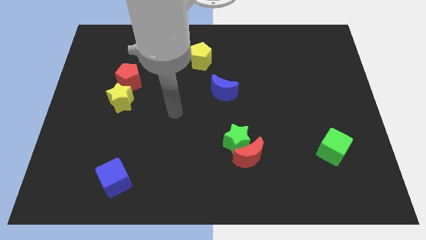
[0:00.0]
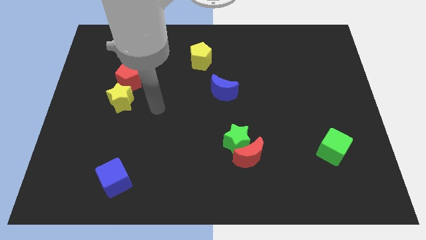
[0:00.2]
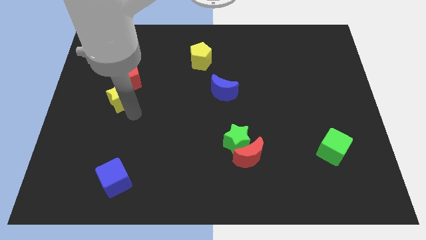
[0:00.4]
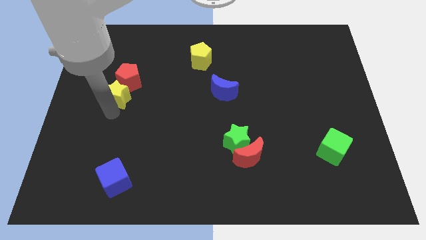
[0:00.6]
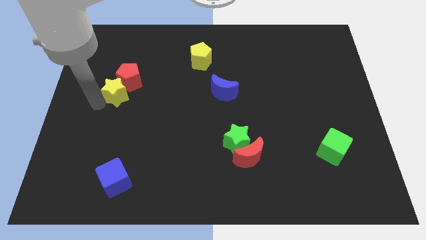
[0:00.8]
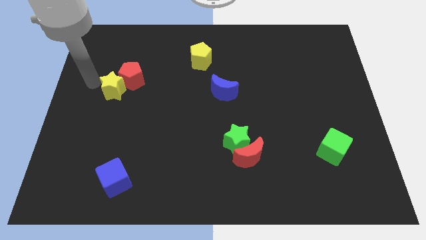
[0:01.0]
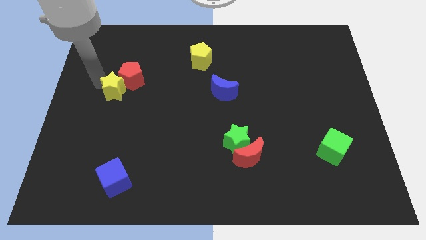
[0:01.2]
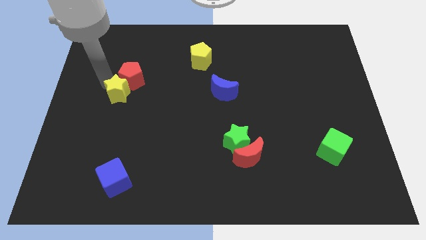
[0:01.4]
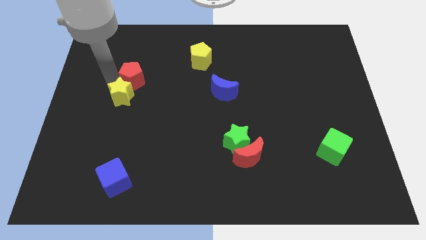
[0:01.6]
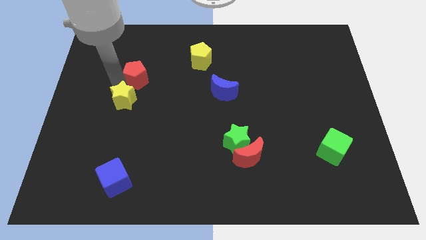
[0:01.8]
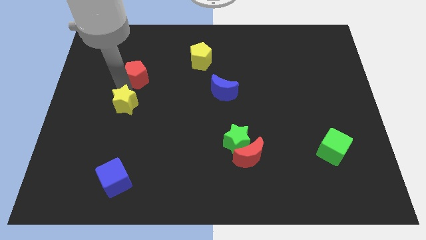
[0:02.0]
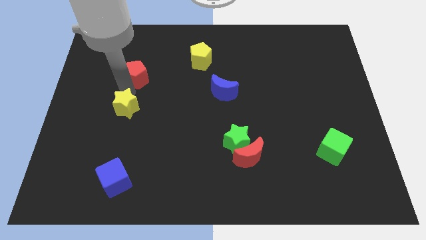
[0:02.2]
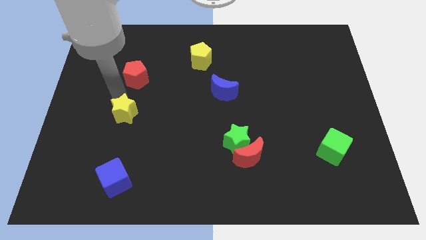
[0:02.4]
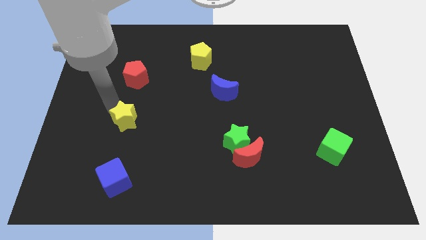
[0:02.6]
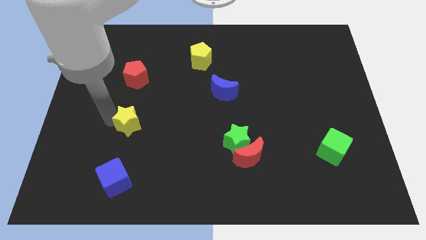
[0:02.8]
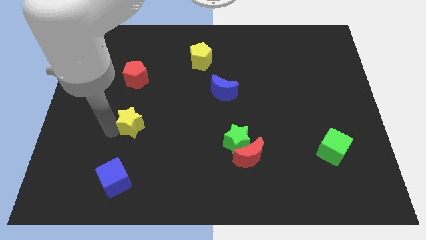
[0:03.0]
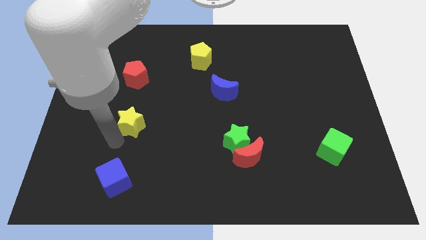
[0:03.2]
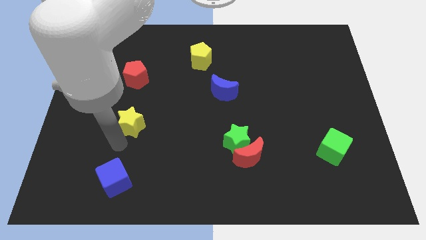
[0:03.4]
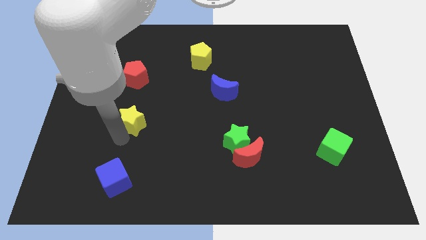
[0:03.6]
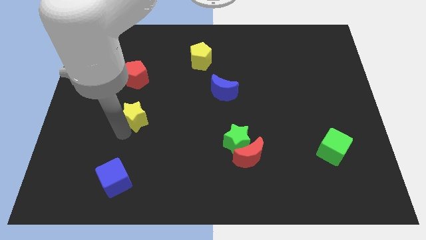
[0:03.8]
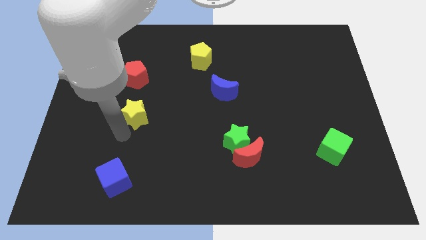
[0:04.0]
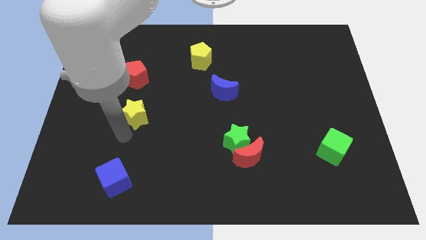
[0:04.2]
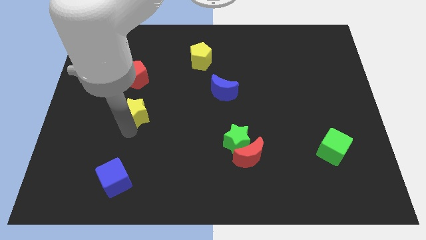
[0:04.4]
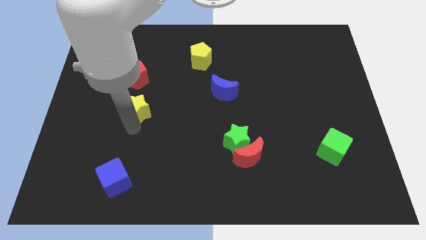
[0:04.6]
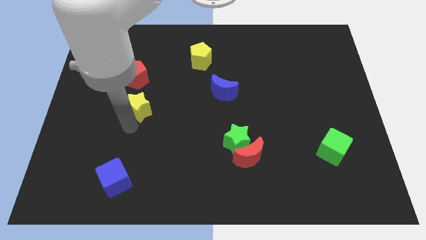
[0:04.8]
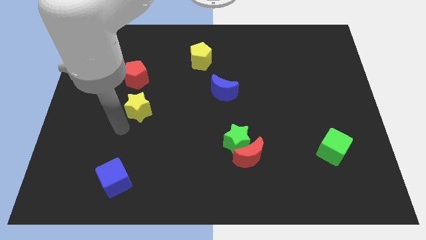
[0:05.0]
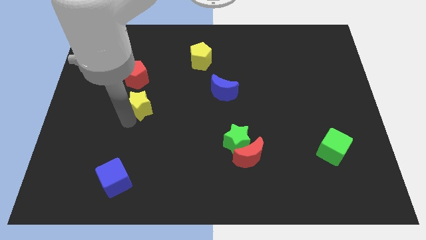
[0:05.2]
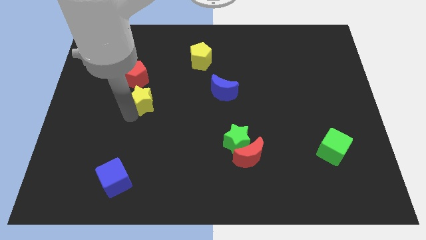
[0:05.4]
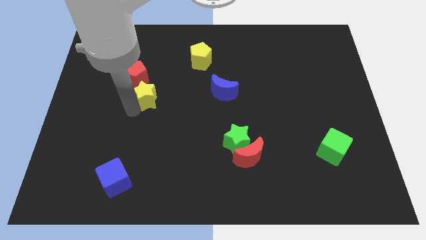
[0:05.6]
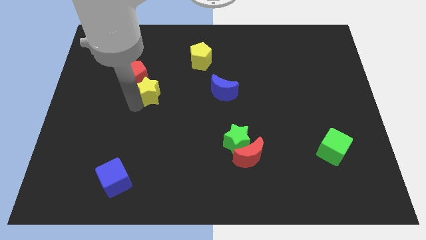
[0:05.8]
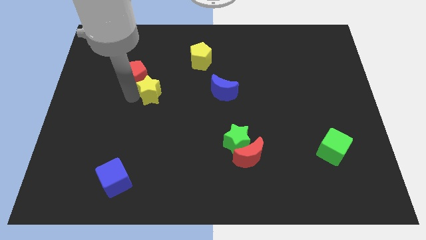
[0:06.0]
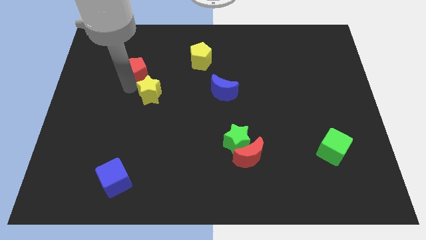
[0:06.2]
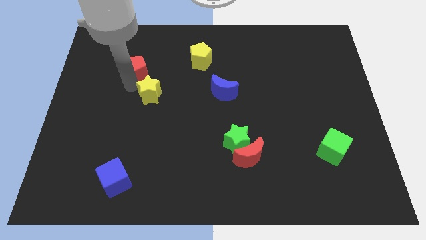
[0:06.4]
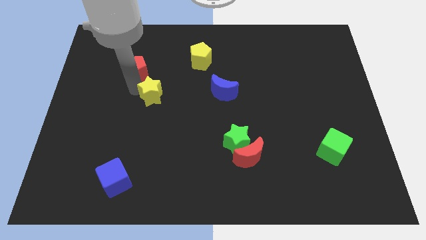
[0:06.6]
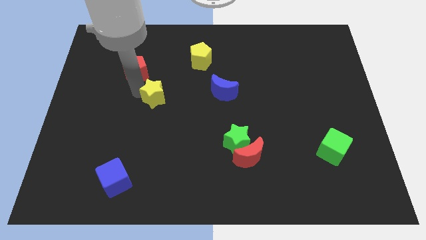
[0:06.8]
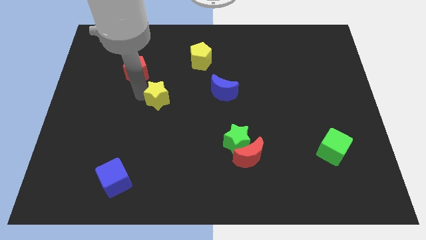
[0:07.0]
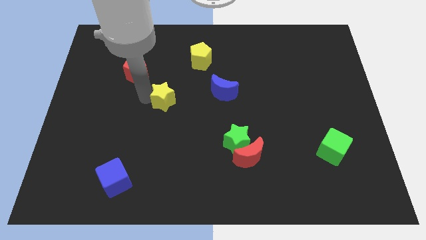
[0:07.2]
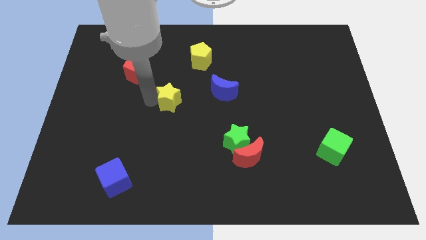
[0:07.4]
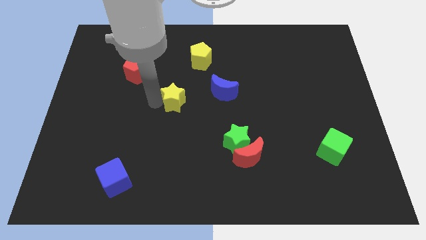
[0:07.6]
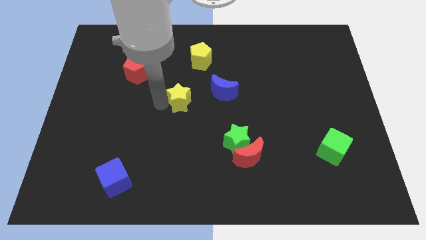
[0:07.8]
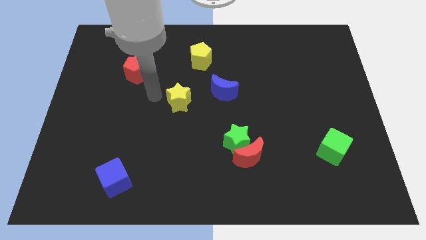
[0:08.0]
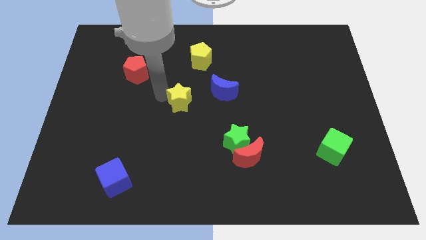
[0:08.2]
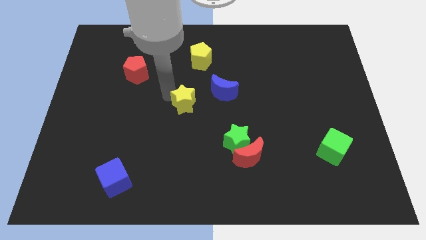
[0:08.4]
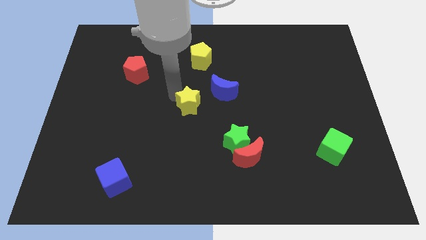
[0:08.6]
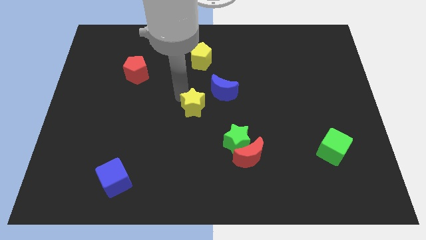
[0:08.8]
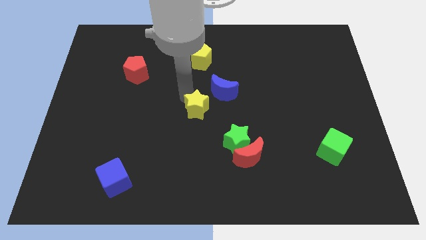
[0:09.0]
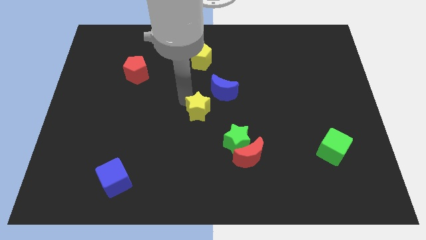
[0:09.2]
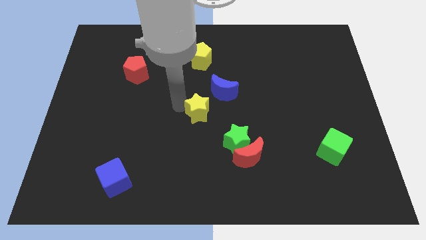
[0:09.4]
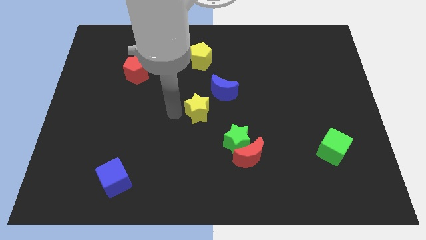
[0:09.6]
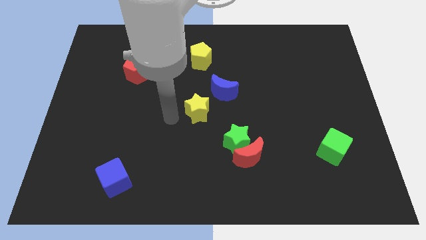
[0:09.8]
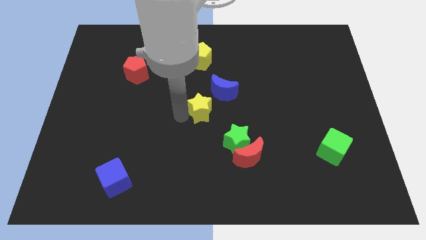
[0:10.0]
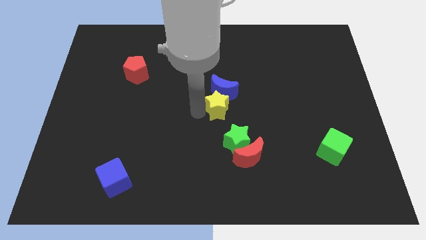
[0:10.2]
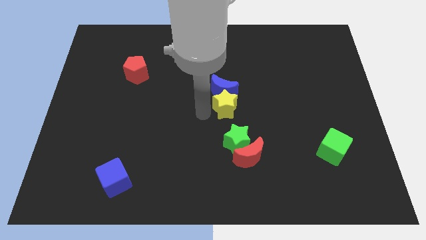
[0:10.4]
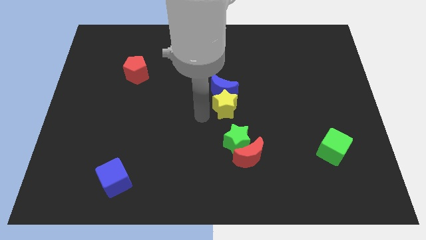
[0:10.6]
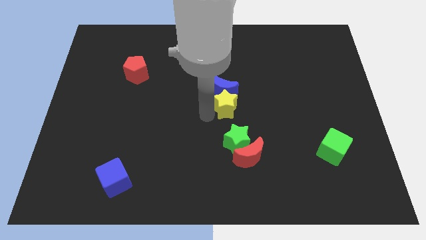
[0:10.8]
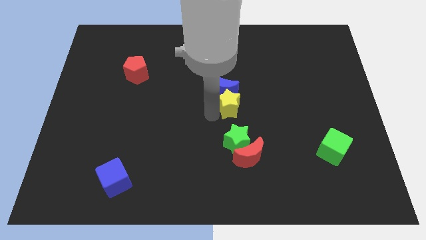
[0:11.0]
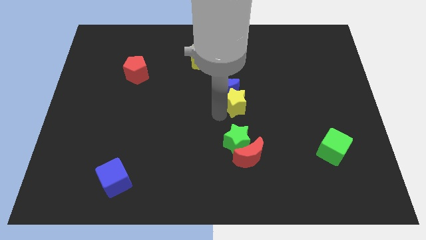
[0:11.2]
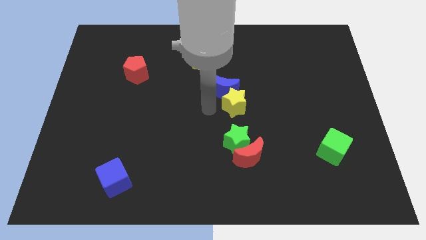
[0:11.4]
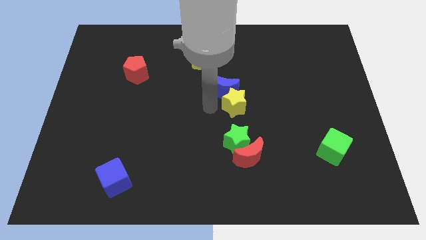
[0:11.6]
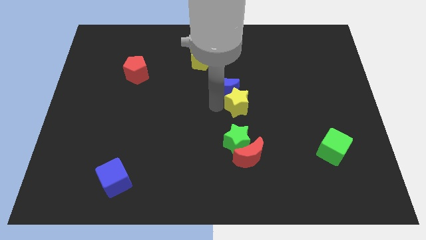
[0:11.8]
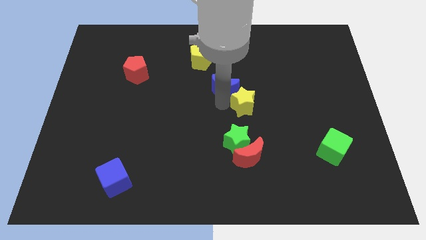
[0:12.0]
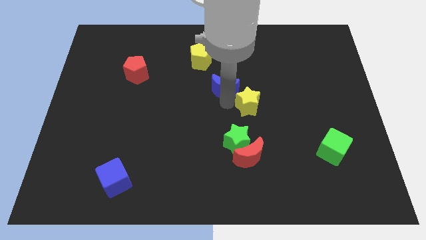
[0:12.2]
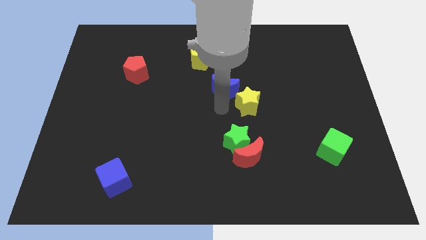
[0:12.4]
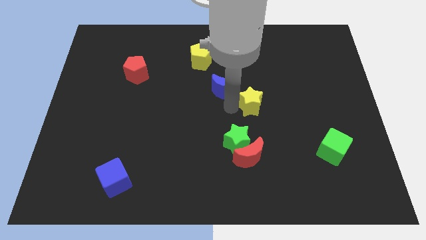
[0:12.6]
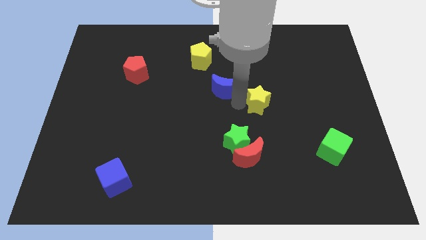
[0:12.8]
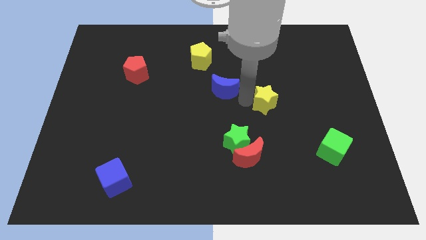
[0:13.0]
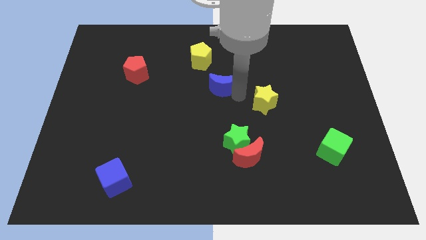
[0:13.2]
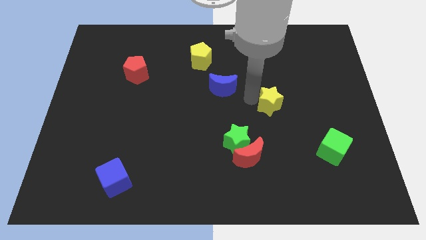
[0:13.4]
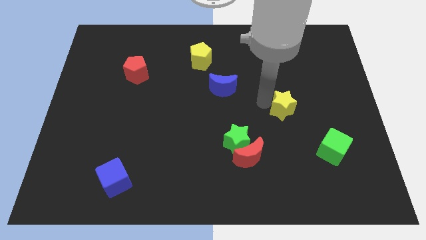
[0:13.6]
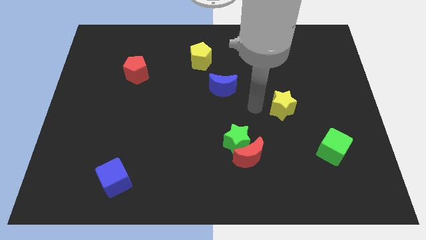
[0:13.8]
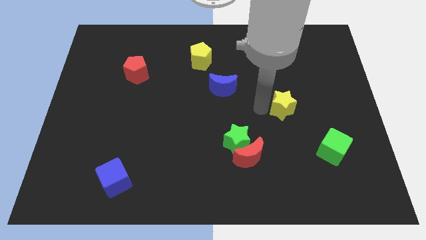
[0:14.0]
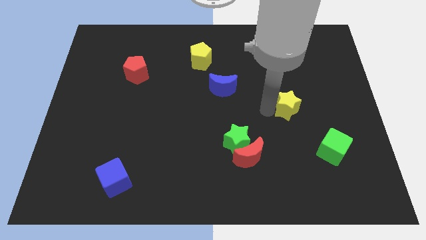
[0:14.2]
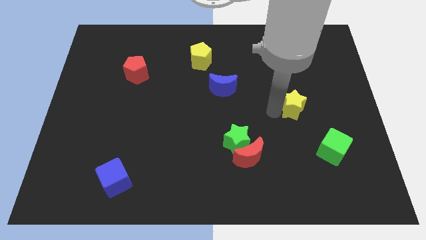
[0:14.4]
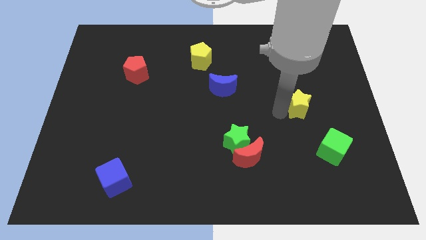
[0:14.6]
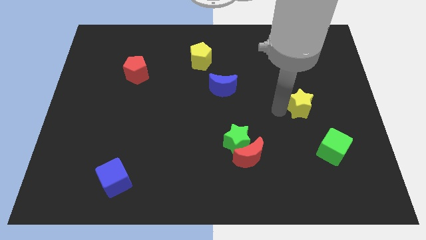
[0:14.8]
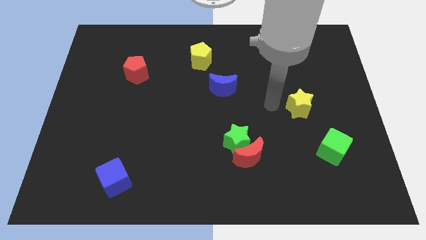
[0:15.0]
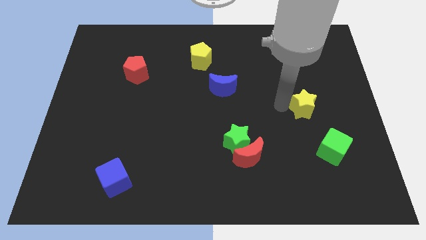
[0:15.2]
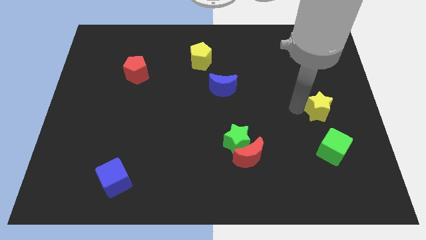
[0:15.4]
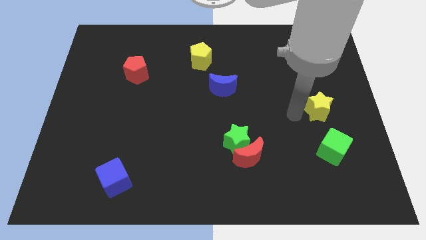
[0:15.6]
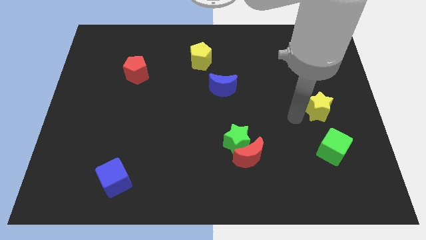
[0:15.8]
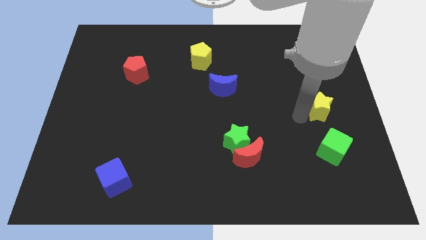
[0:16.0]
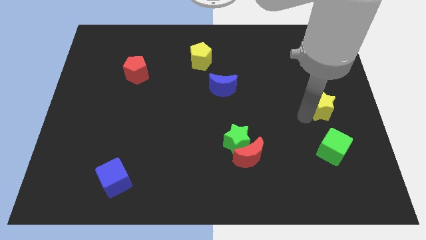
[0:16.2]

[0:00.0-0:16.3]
put the yellow star to the center right
